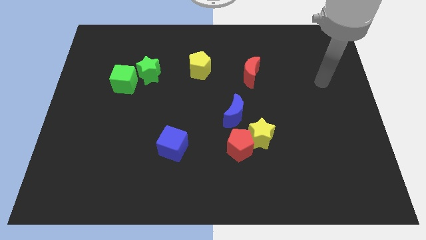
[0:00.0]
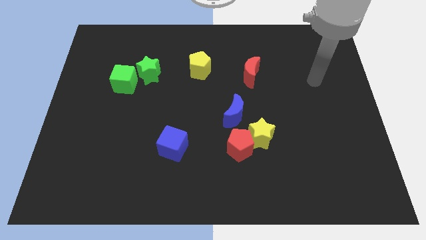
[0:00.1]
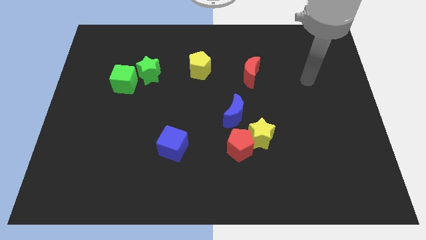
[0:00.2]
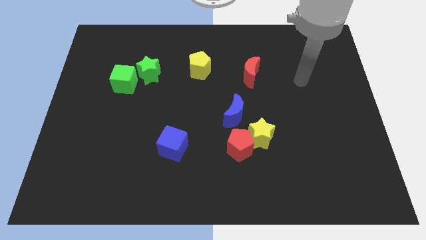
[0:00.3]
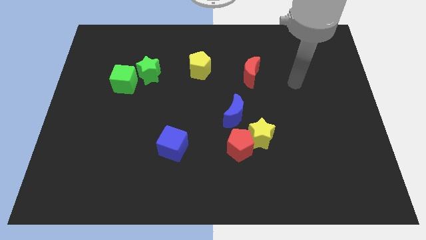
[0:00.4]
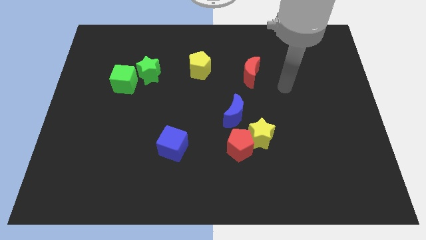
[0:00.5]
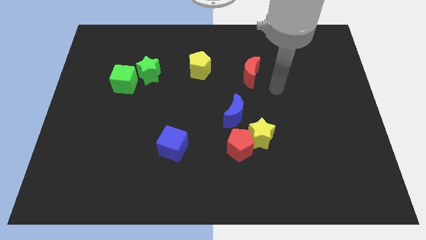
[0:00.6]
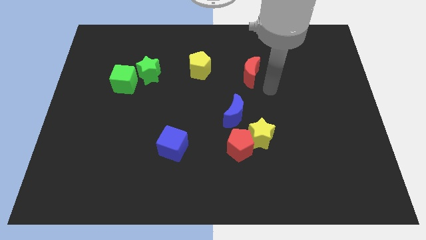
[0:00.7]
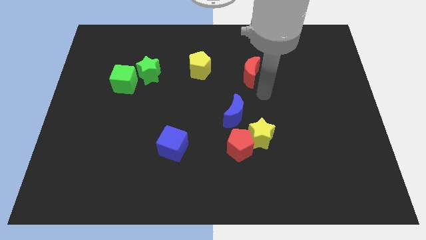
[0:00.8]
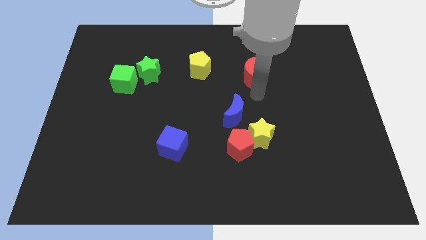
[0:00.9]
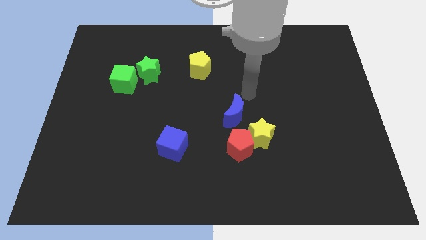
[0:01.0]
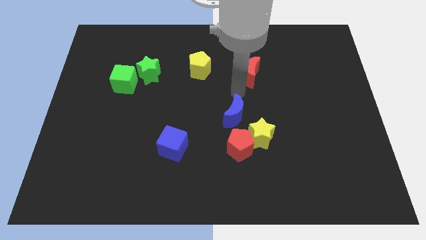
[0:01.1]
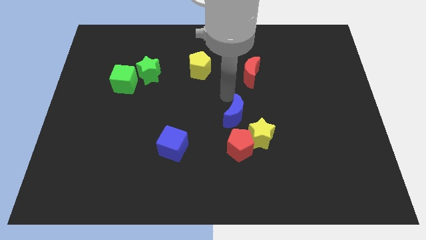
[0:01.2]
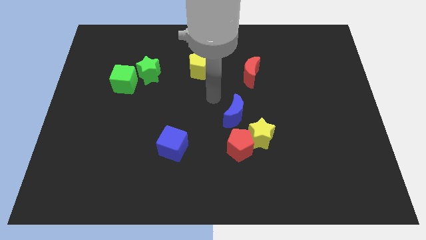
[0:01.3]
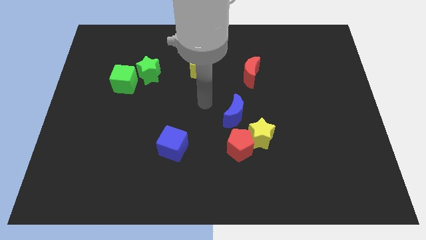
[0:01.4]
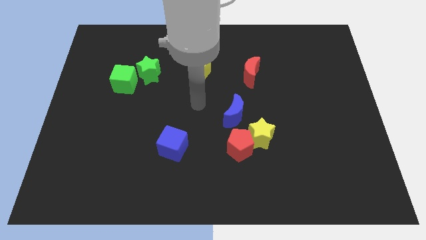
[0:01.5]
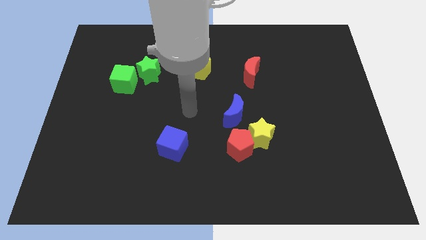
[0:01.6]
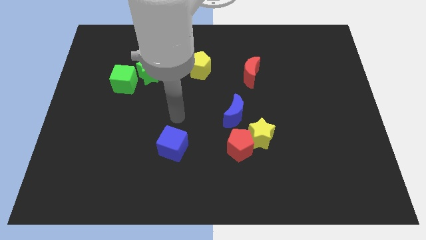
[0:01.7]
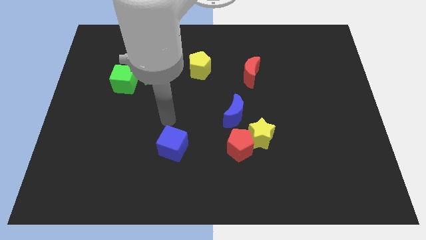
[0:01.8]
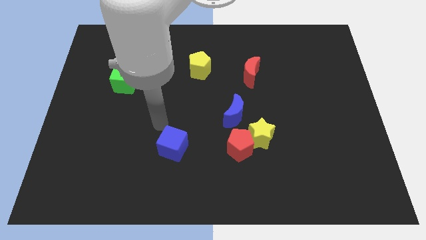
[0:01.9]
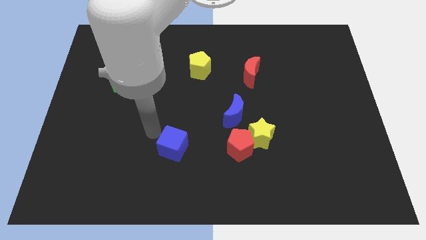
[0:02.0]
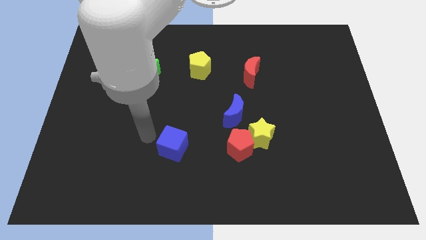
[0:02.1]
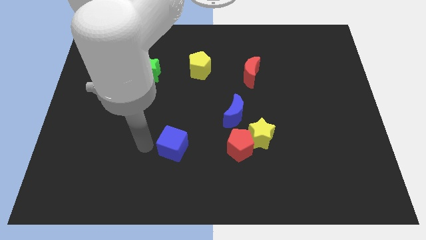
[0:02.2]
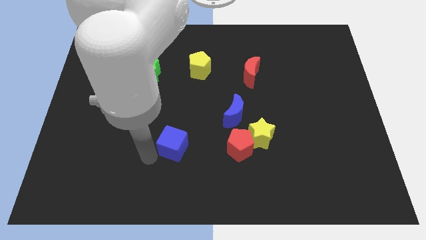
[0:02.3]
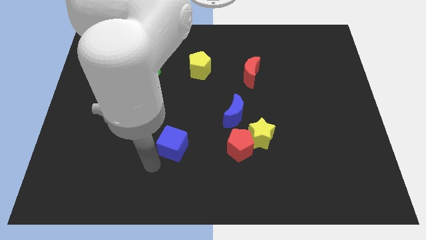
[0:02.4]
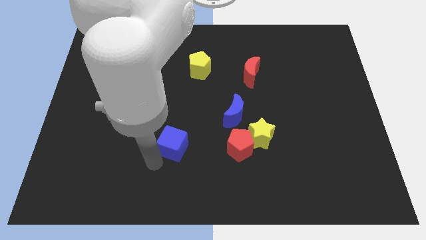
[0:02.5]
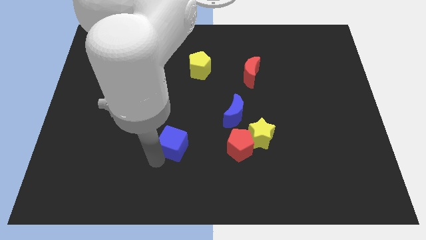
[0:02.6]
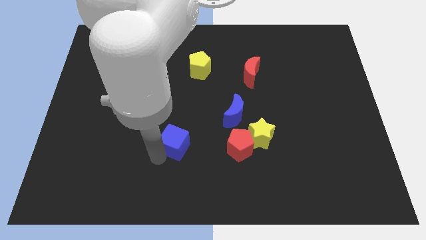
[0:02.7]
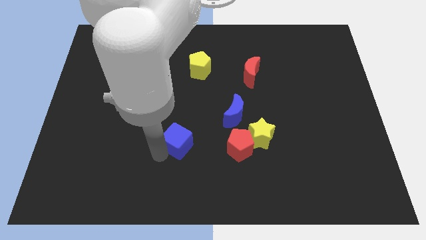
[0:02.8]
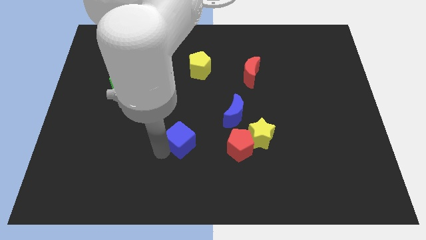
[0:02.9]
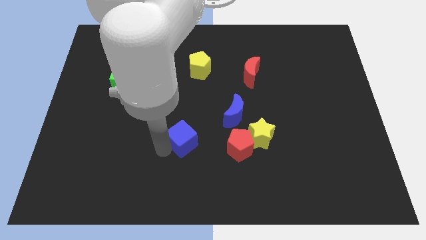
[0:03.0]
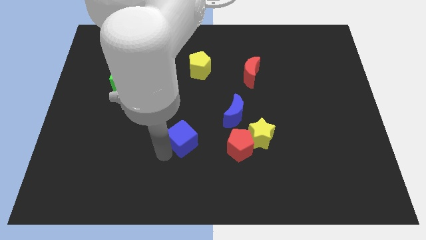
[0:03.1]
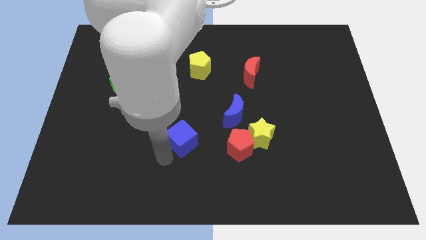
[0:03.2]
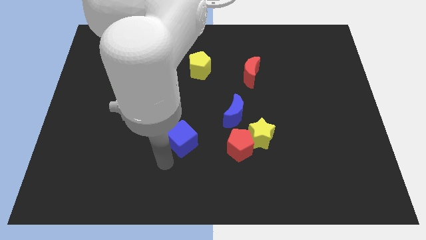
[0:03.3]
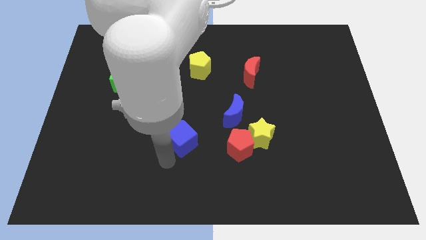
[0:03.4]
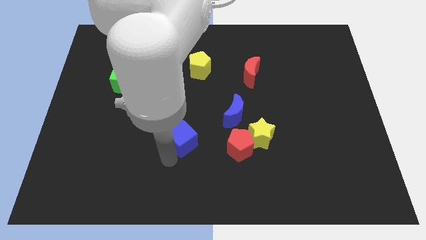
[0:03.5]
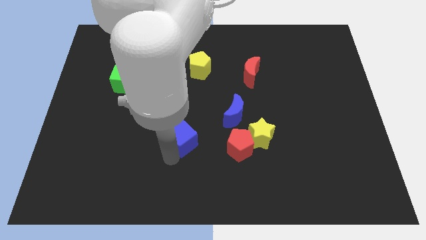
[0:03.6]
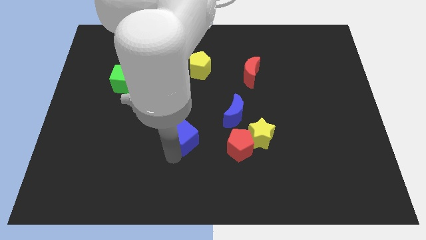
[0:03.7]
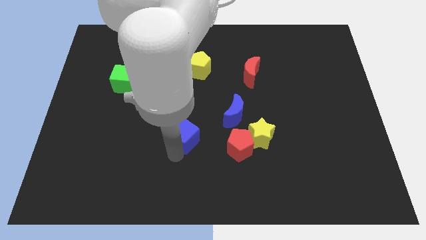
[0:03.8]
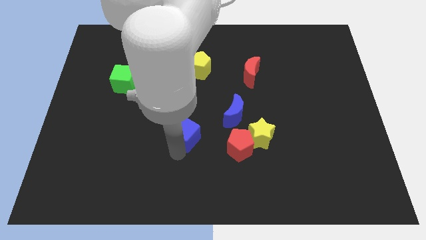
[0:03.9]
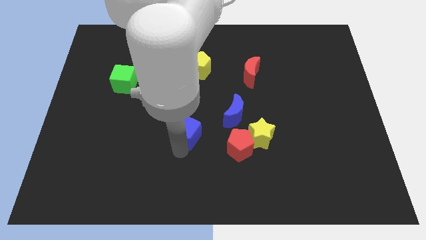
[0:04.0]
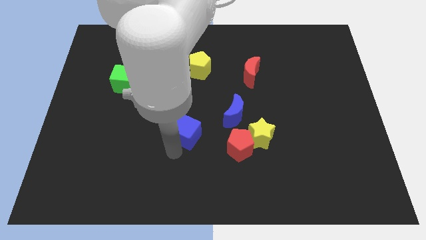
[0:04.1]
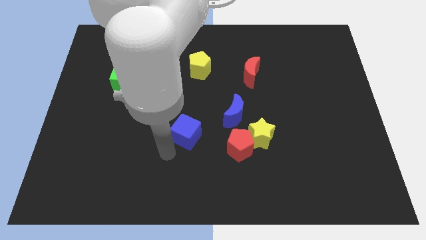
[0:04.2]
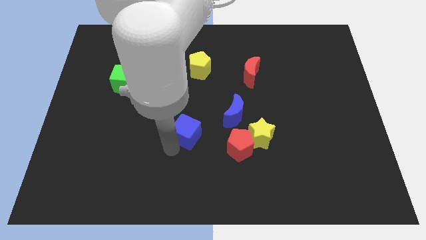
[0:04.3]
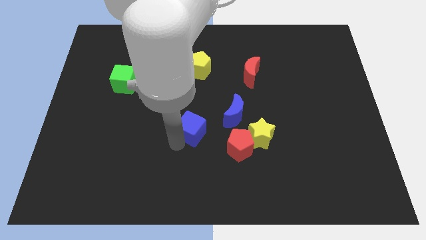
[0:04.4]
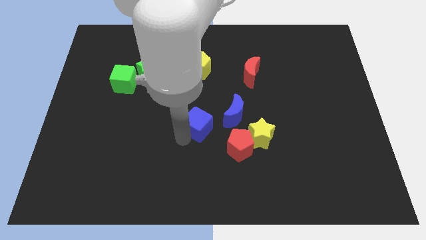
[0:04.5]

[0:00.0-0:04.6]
move the blue cube up and to the right diagonally slightly

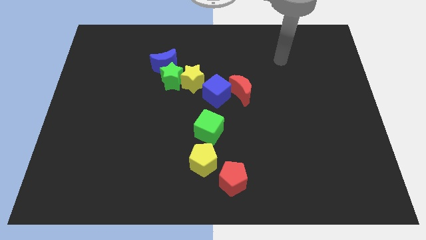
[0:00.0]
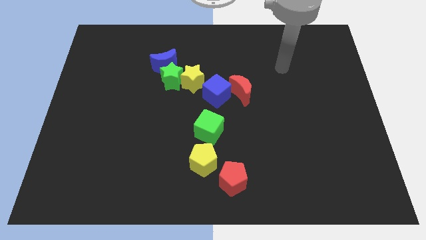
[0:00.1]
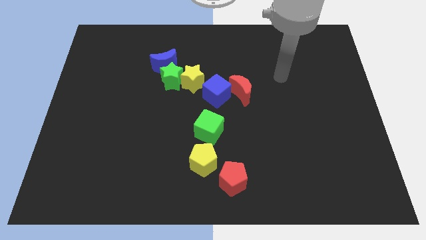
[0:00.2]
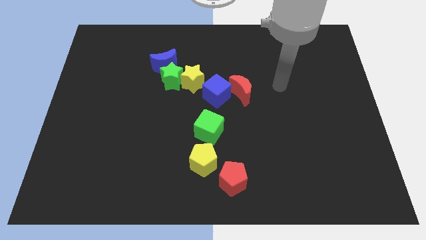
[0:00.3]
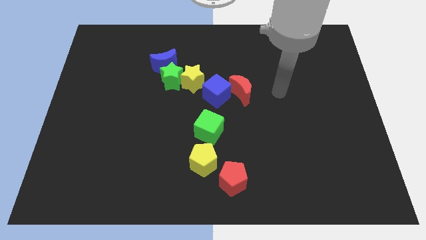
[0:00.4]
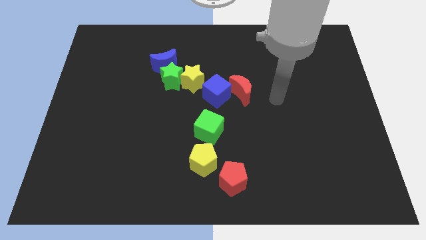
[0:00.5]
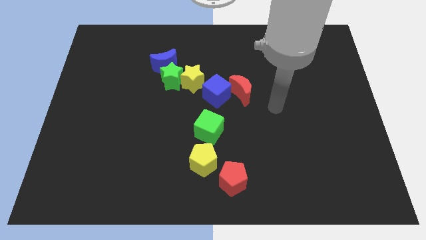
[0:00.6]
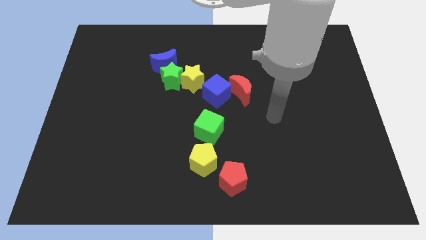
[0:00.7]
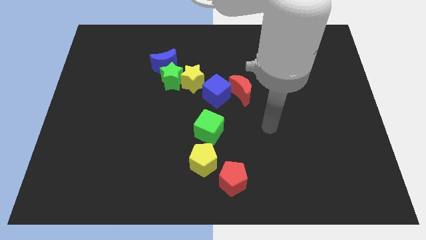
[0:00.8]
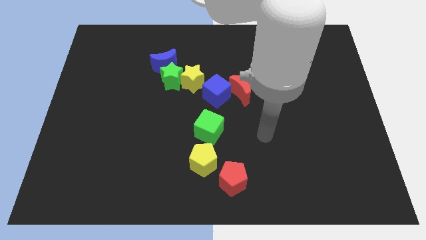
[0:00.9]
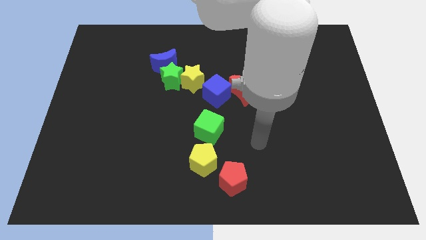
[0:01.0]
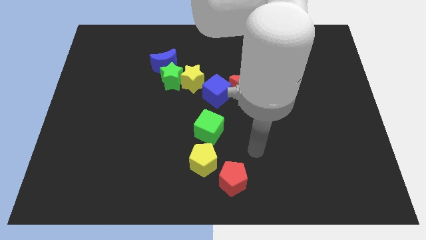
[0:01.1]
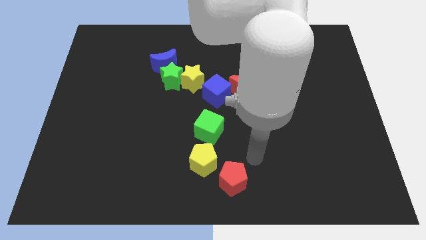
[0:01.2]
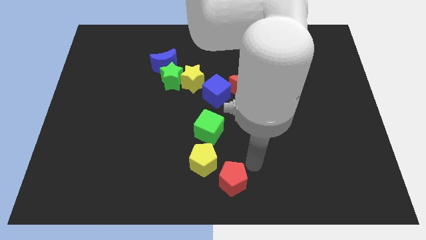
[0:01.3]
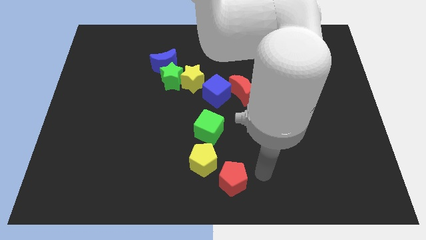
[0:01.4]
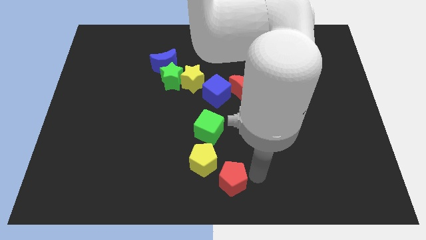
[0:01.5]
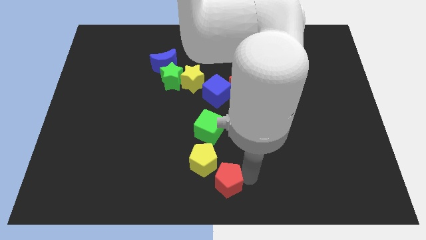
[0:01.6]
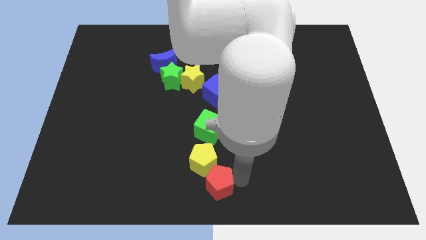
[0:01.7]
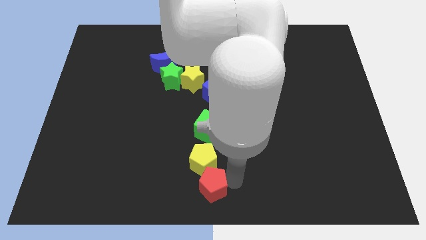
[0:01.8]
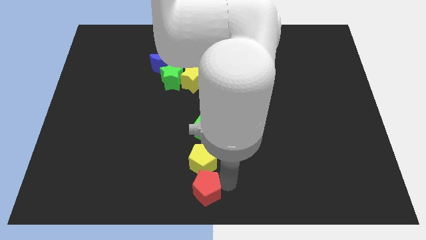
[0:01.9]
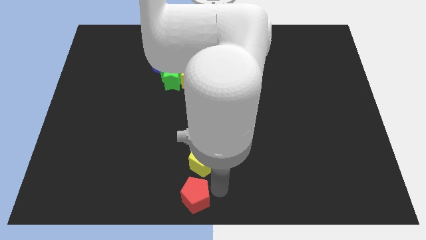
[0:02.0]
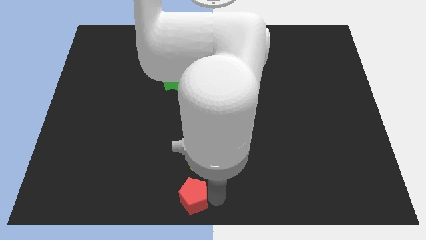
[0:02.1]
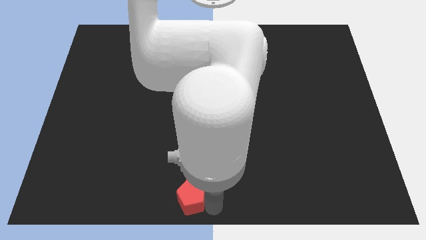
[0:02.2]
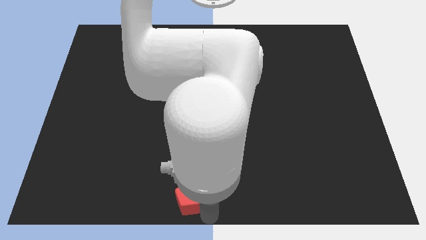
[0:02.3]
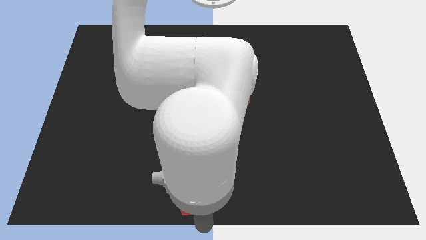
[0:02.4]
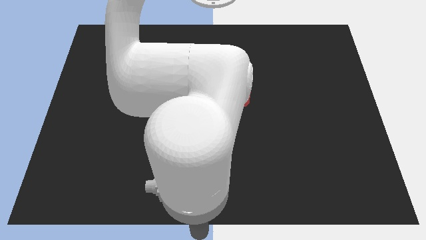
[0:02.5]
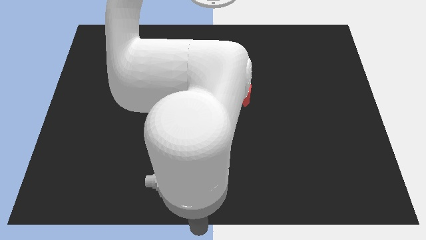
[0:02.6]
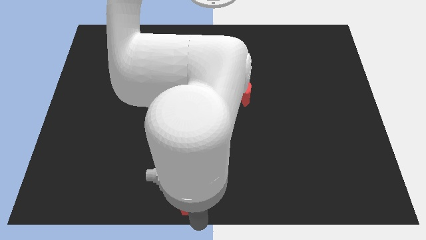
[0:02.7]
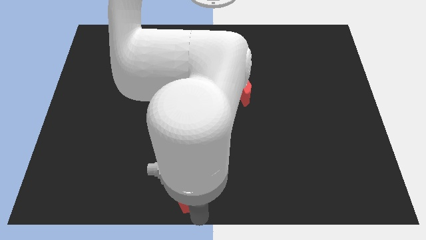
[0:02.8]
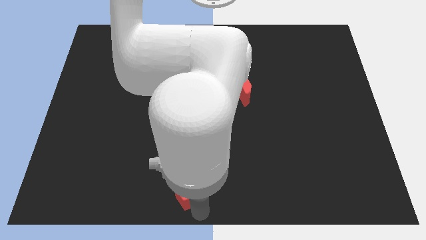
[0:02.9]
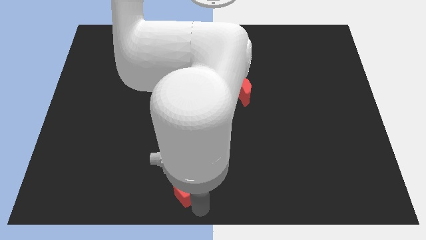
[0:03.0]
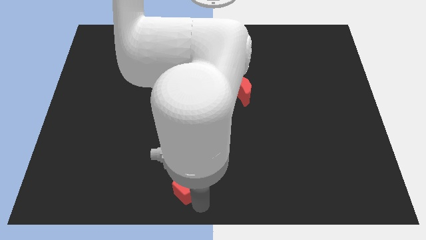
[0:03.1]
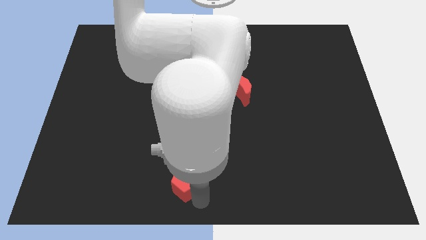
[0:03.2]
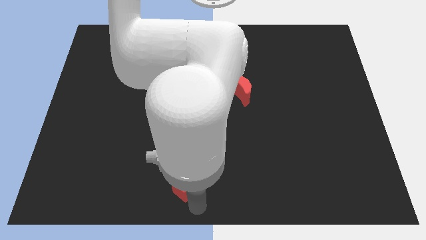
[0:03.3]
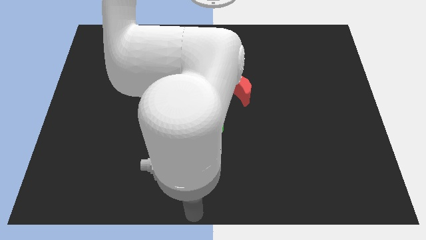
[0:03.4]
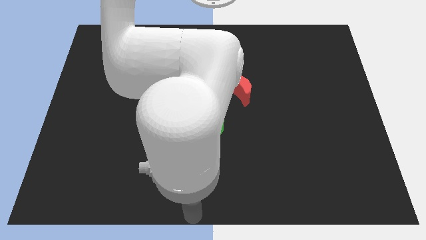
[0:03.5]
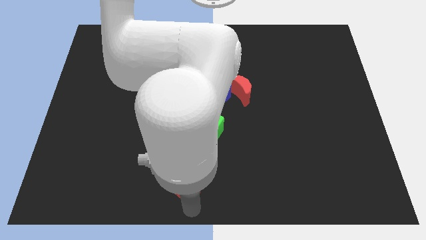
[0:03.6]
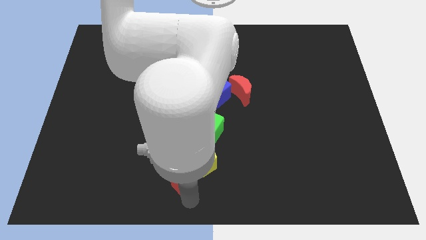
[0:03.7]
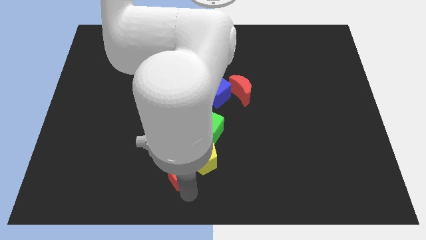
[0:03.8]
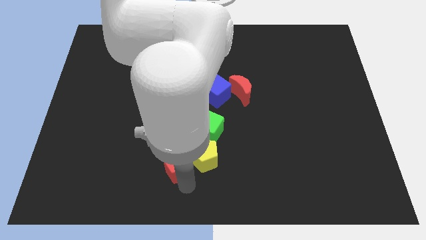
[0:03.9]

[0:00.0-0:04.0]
slide the red pentagon diagonally up and to the left a little
